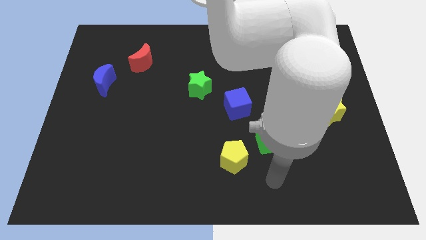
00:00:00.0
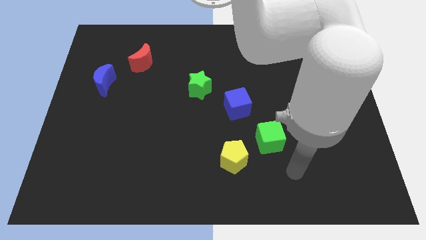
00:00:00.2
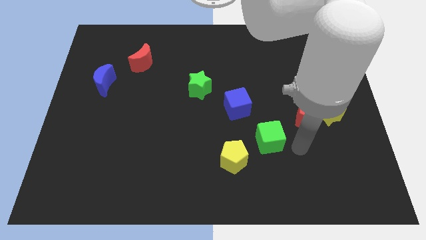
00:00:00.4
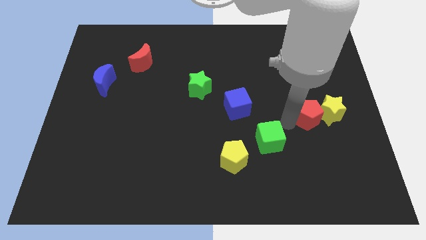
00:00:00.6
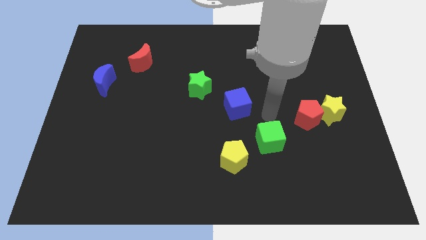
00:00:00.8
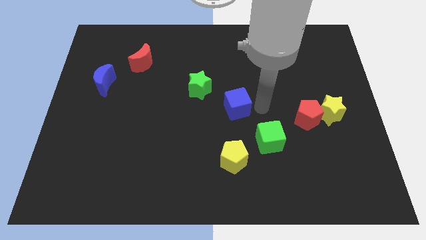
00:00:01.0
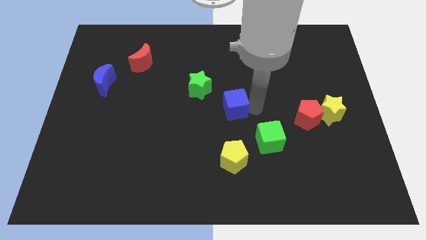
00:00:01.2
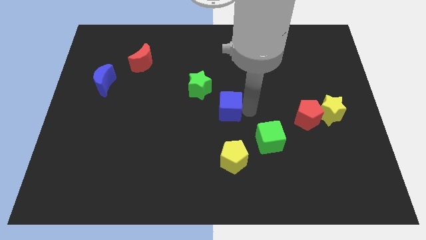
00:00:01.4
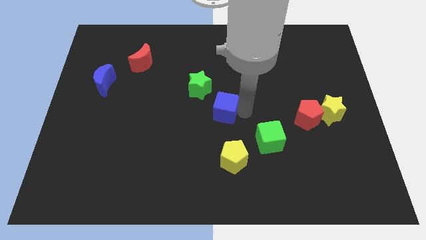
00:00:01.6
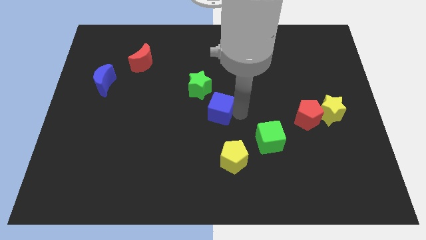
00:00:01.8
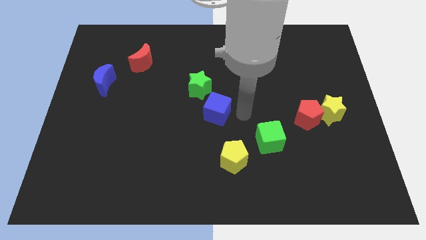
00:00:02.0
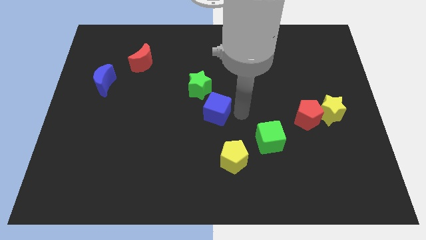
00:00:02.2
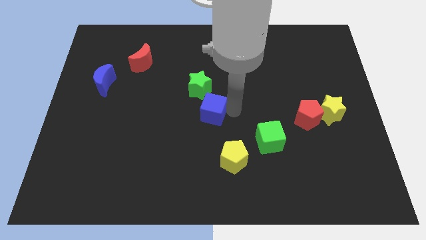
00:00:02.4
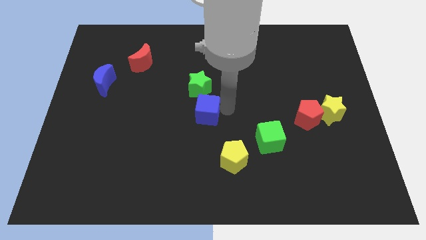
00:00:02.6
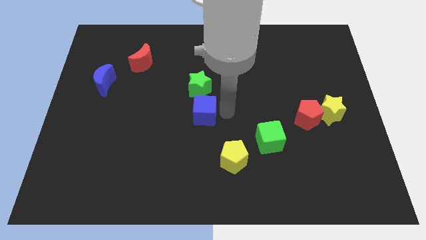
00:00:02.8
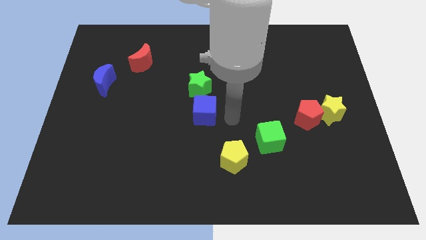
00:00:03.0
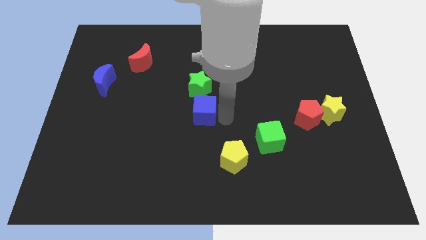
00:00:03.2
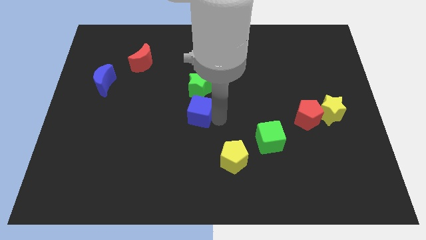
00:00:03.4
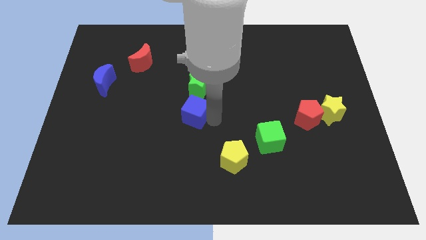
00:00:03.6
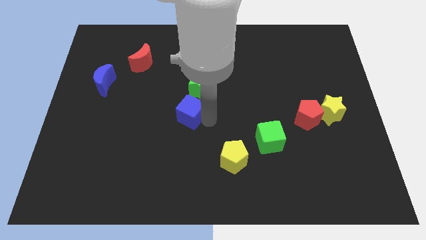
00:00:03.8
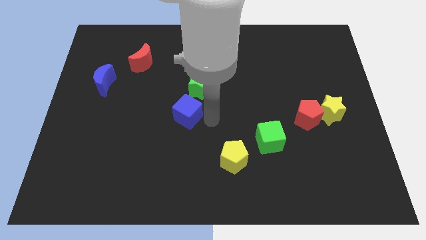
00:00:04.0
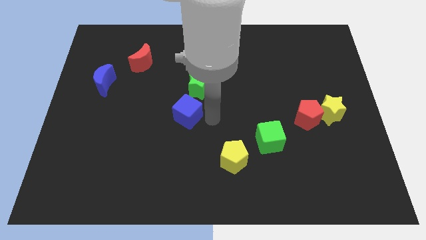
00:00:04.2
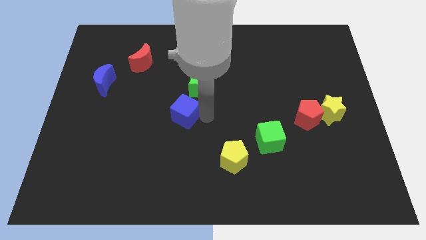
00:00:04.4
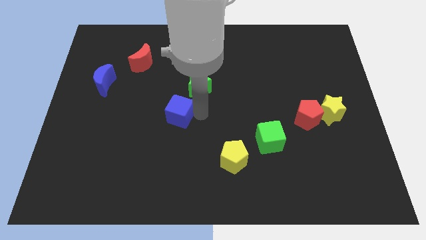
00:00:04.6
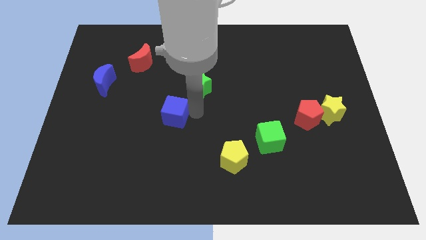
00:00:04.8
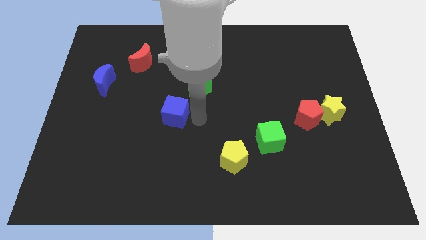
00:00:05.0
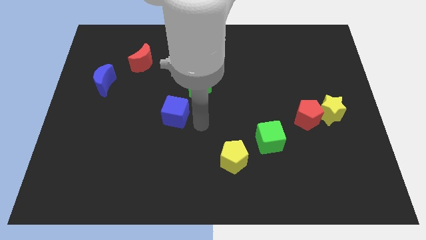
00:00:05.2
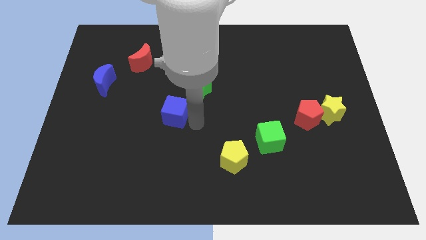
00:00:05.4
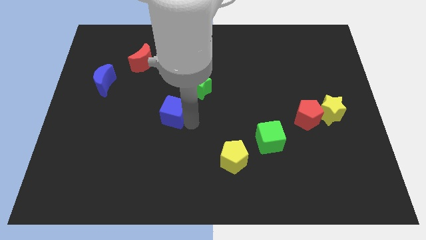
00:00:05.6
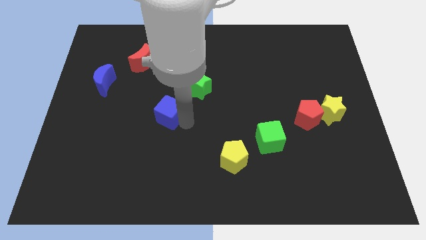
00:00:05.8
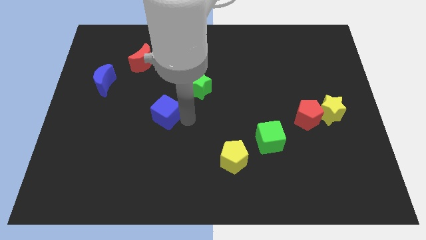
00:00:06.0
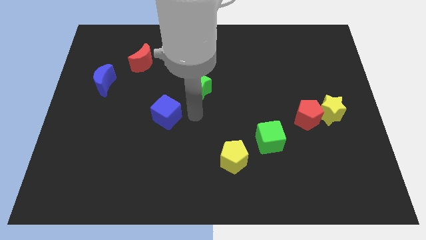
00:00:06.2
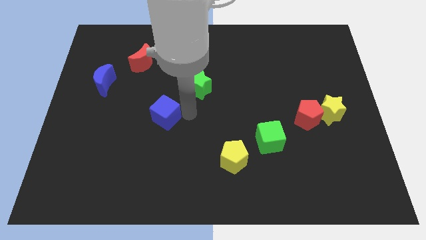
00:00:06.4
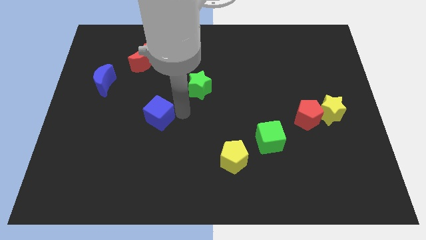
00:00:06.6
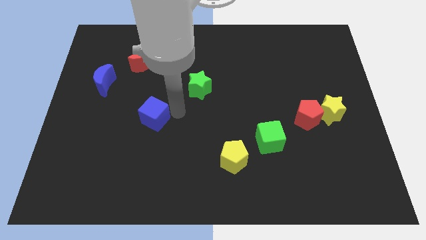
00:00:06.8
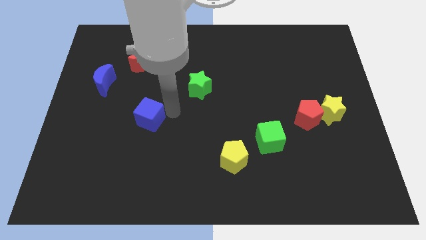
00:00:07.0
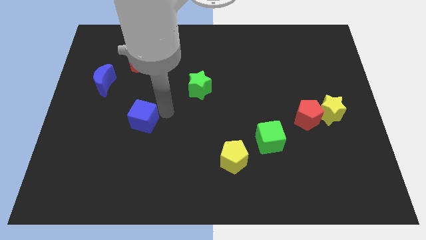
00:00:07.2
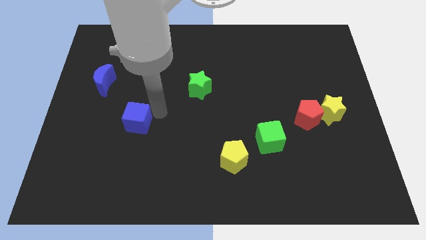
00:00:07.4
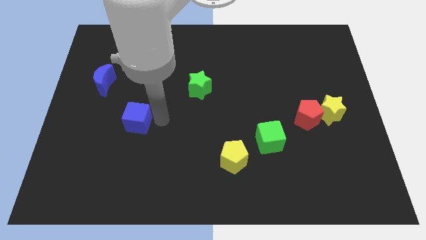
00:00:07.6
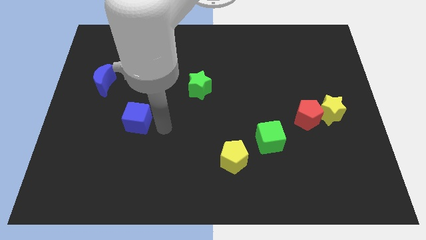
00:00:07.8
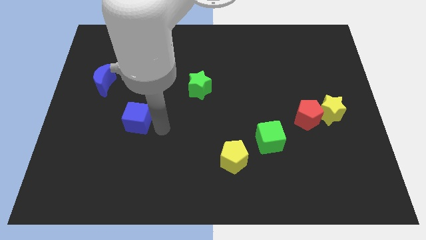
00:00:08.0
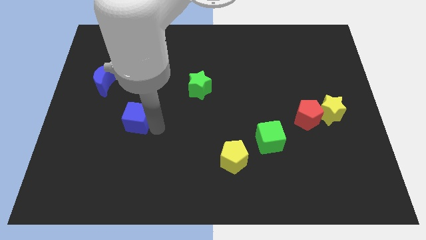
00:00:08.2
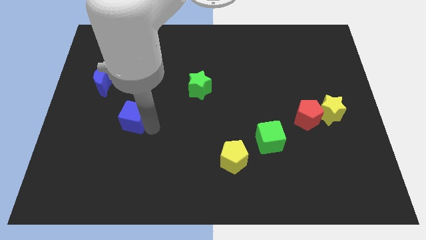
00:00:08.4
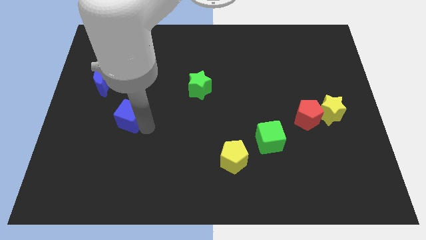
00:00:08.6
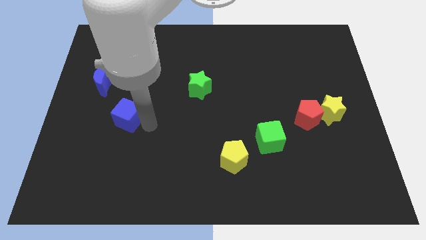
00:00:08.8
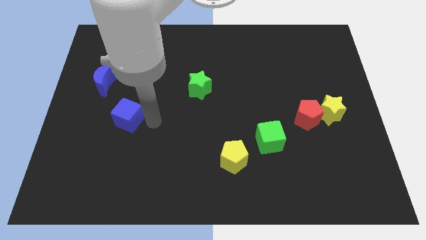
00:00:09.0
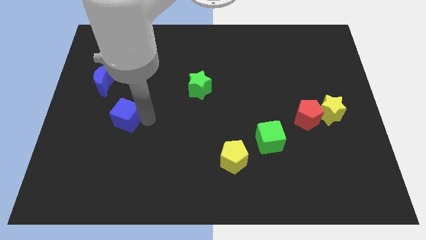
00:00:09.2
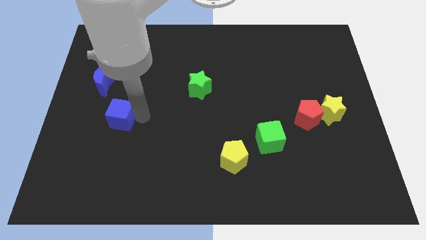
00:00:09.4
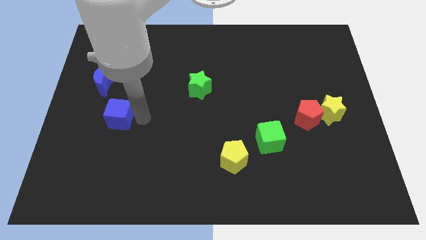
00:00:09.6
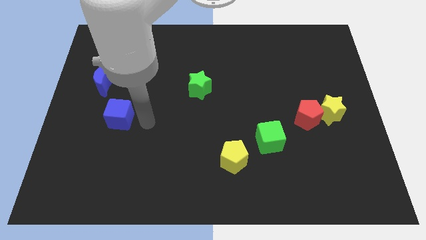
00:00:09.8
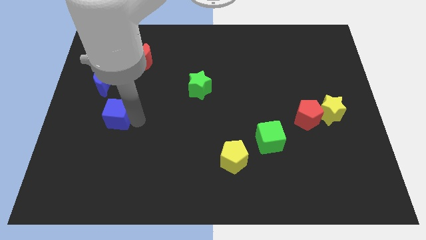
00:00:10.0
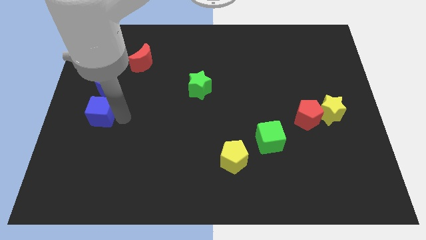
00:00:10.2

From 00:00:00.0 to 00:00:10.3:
slide the blue cube to the center left

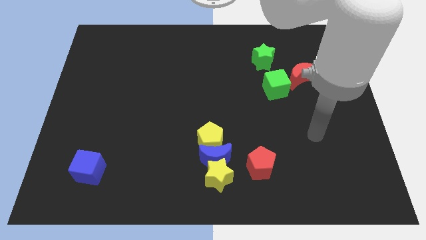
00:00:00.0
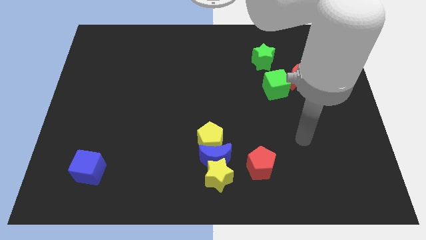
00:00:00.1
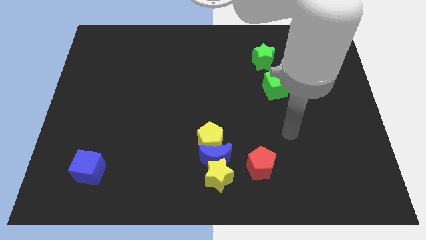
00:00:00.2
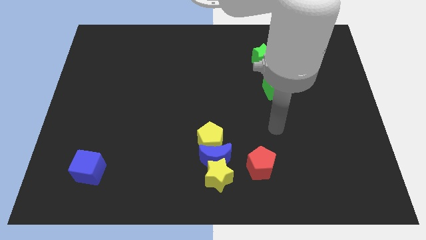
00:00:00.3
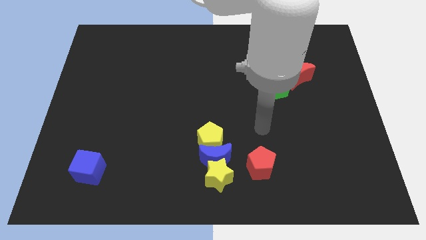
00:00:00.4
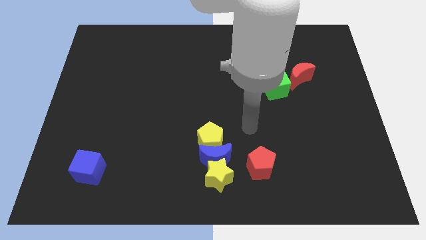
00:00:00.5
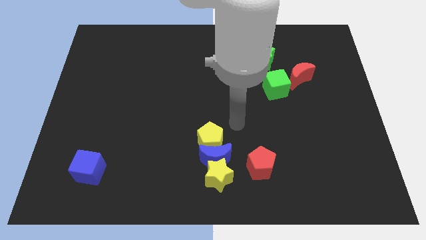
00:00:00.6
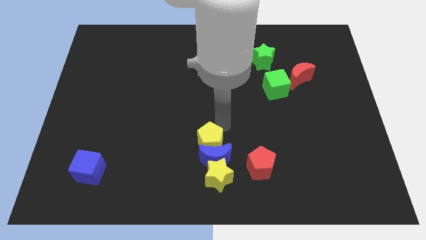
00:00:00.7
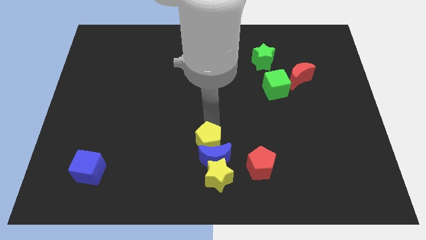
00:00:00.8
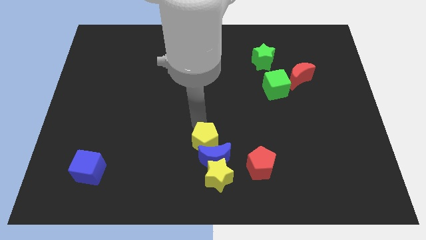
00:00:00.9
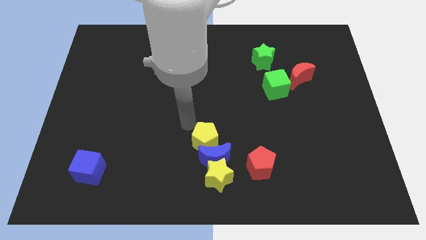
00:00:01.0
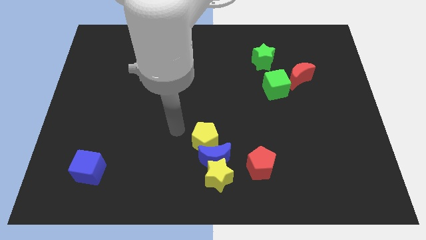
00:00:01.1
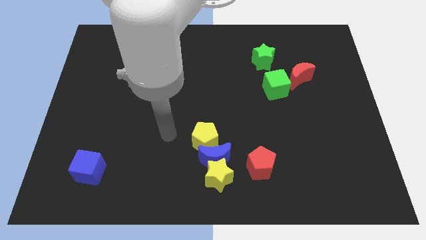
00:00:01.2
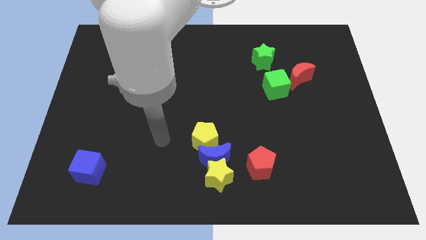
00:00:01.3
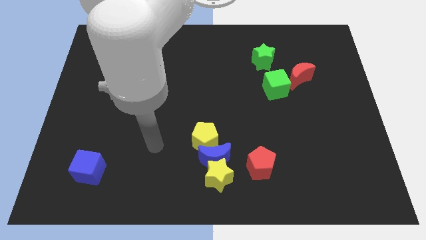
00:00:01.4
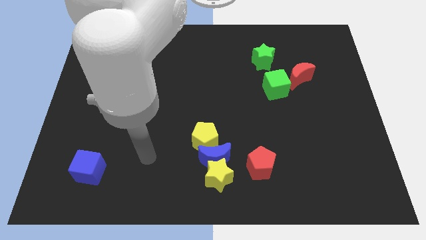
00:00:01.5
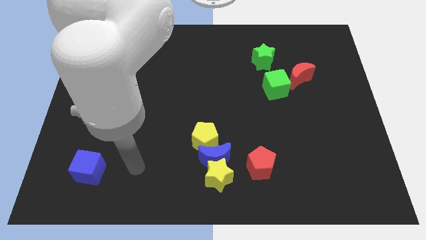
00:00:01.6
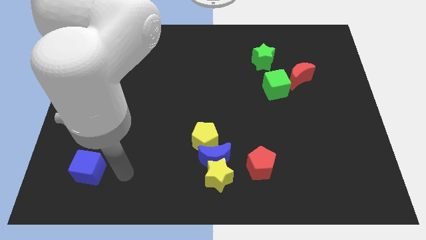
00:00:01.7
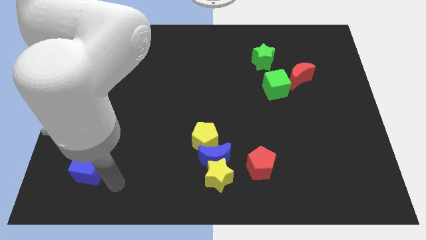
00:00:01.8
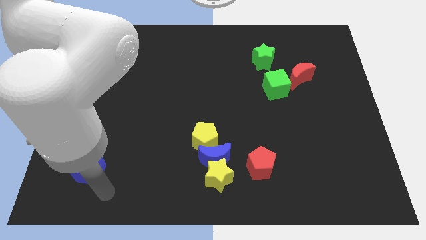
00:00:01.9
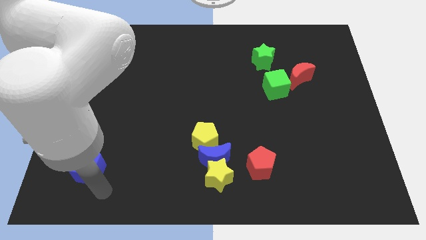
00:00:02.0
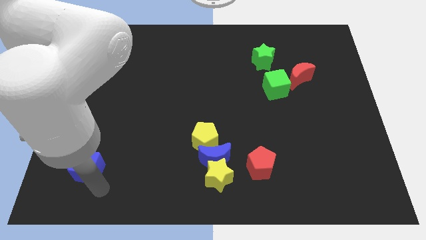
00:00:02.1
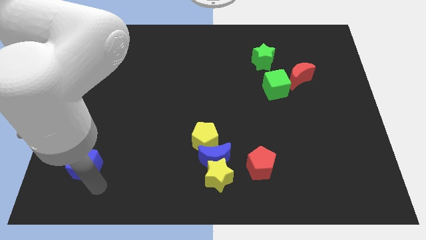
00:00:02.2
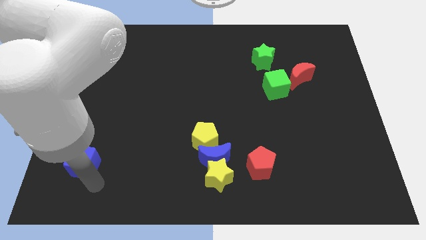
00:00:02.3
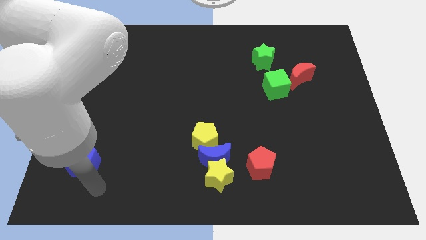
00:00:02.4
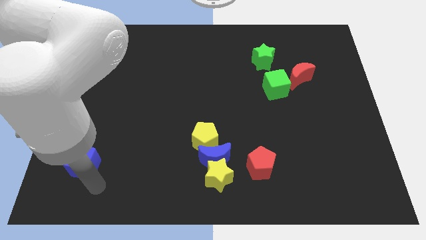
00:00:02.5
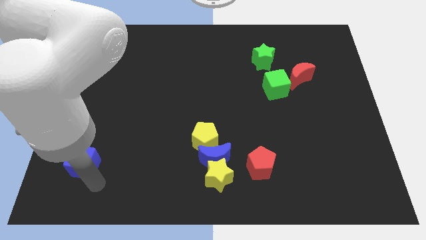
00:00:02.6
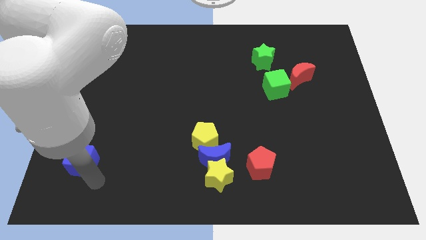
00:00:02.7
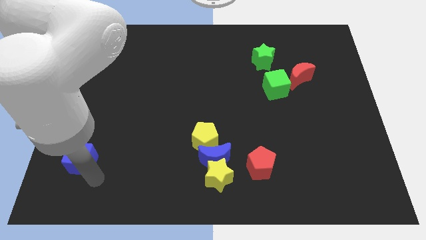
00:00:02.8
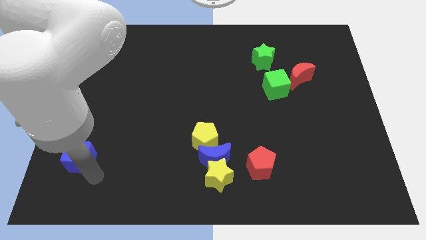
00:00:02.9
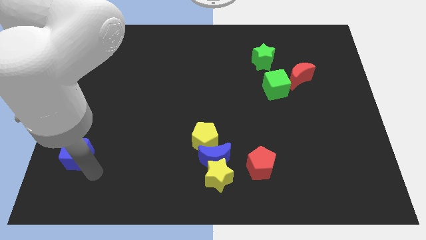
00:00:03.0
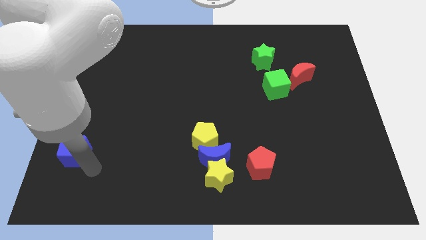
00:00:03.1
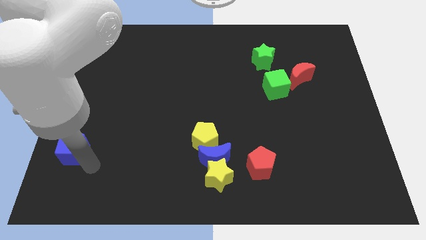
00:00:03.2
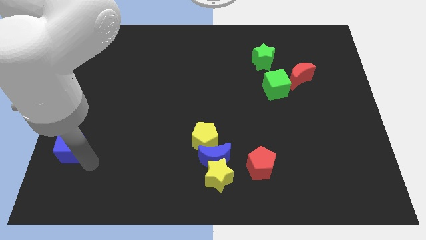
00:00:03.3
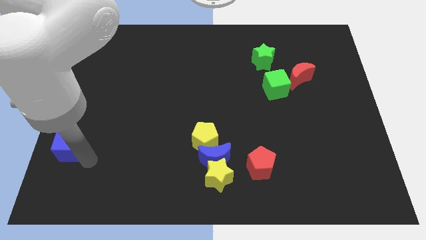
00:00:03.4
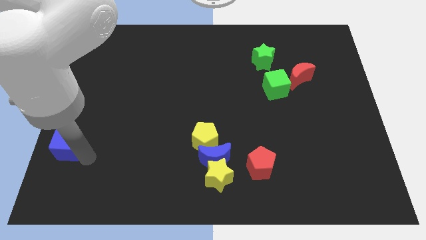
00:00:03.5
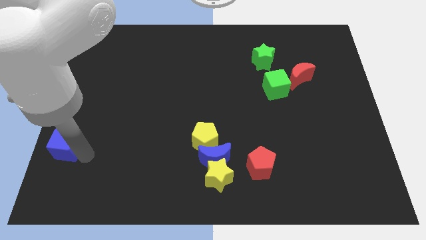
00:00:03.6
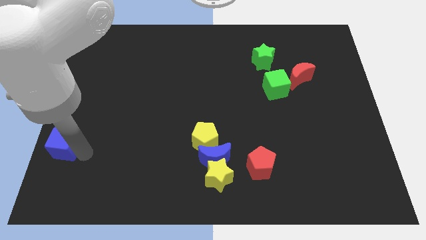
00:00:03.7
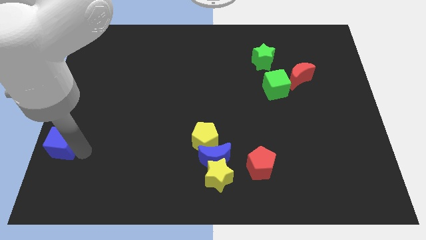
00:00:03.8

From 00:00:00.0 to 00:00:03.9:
put the blue cube to the center left
